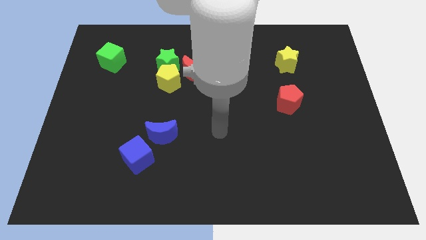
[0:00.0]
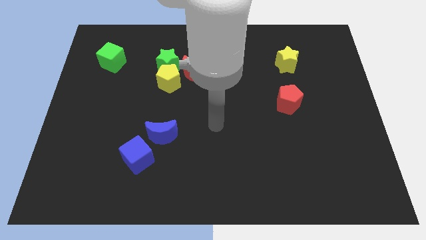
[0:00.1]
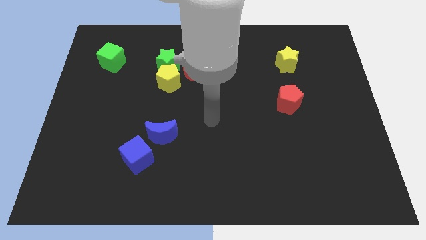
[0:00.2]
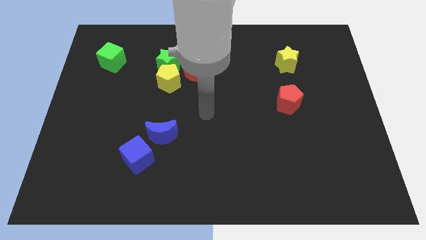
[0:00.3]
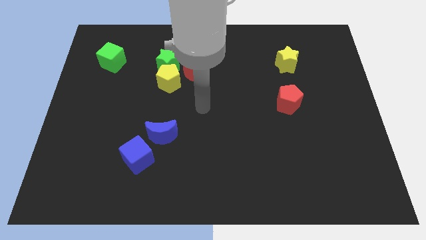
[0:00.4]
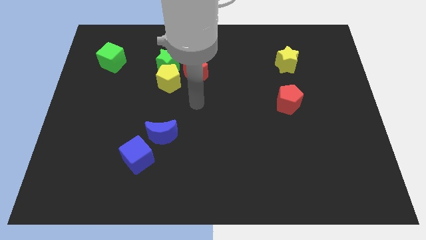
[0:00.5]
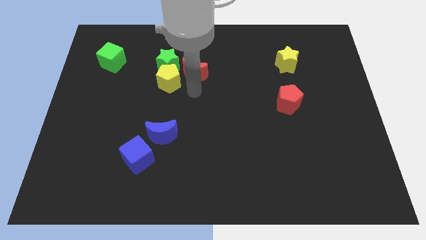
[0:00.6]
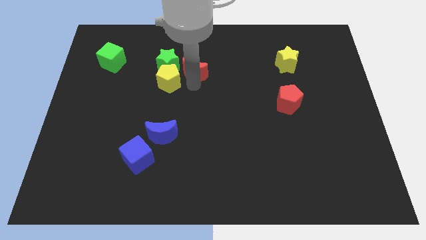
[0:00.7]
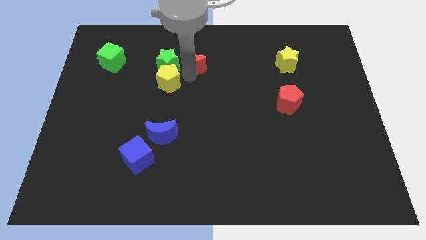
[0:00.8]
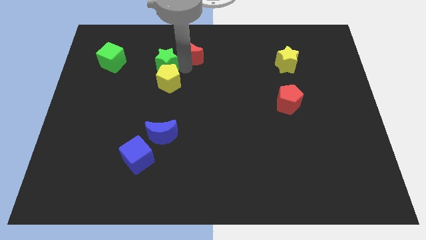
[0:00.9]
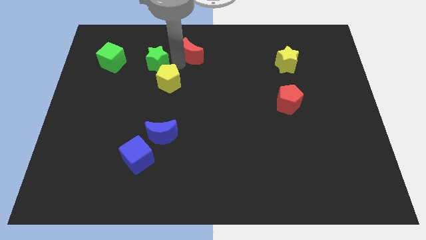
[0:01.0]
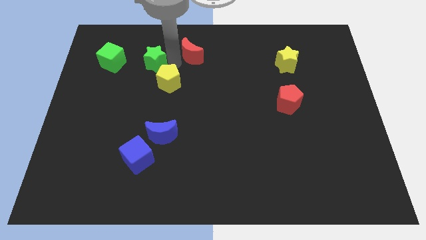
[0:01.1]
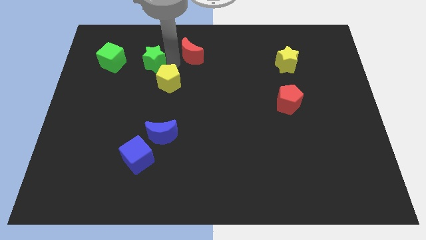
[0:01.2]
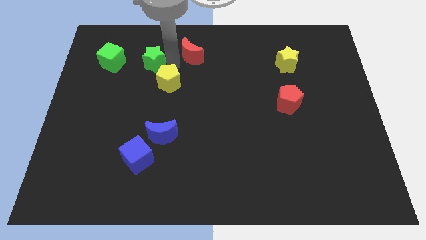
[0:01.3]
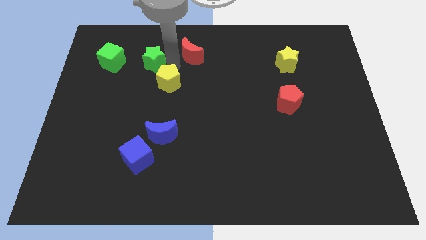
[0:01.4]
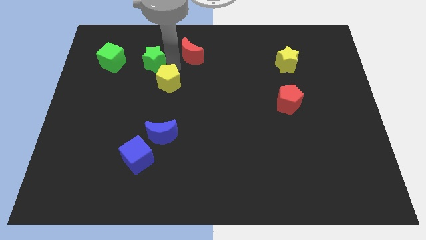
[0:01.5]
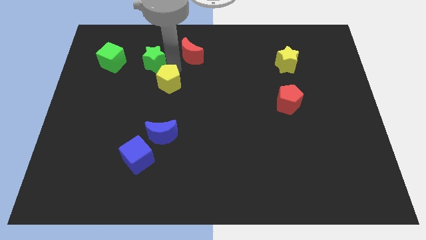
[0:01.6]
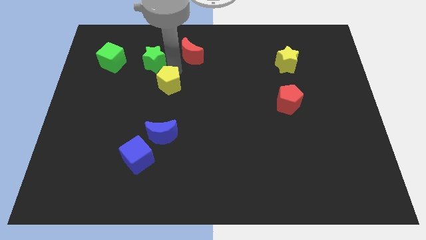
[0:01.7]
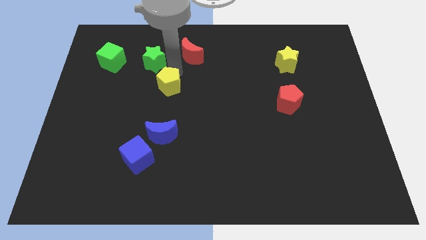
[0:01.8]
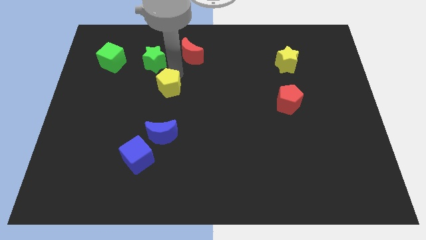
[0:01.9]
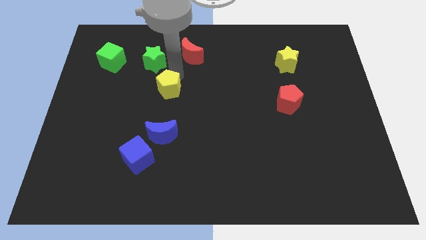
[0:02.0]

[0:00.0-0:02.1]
separate the yellow pentagon from the green star and red moon

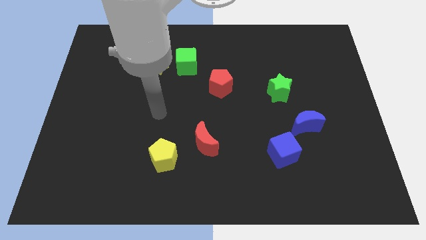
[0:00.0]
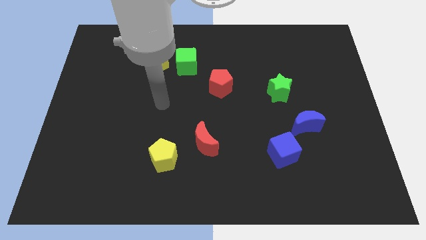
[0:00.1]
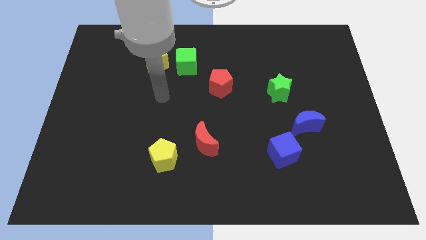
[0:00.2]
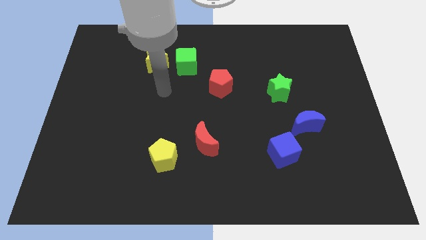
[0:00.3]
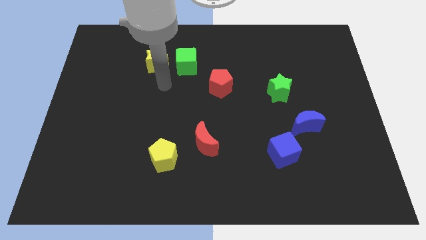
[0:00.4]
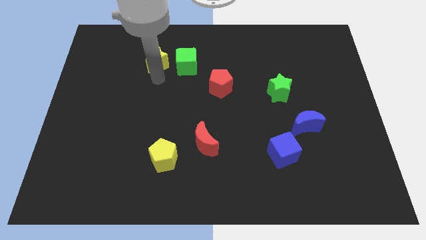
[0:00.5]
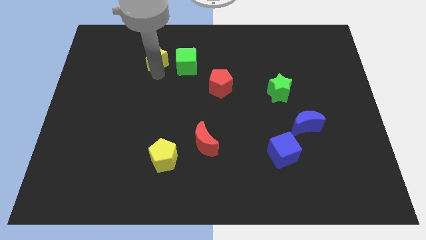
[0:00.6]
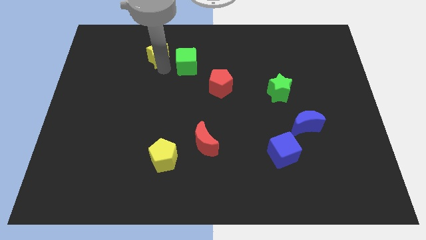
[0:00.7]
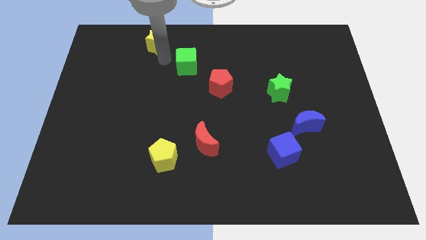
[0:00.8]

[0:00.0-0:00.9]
move the green cube away from the yellow star

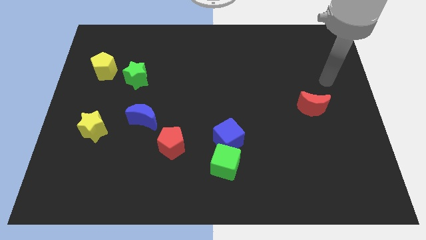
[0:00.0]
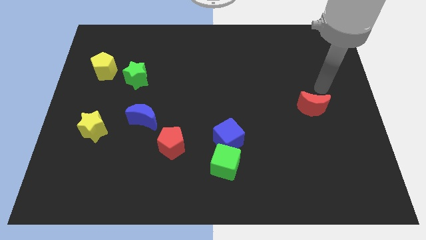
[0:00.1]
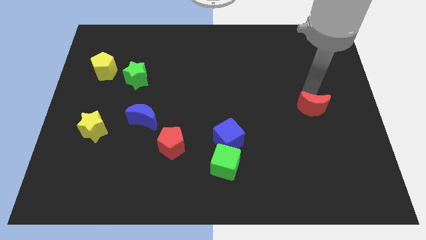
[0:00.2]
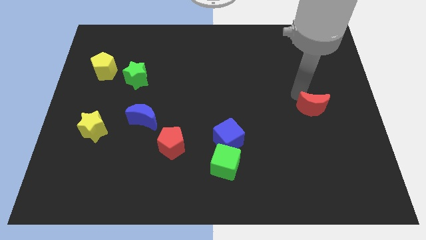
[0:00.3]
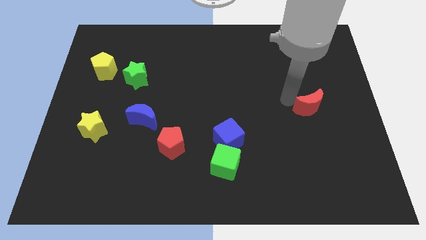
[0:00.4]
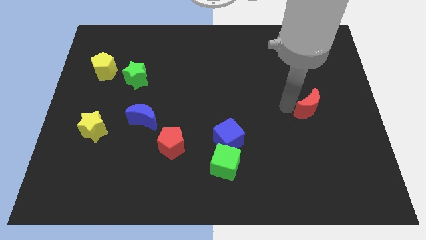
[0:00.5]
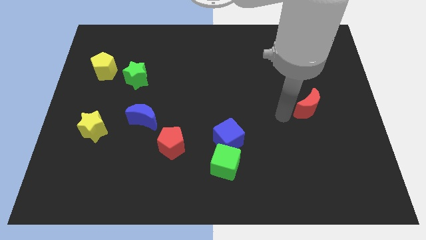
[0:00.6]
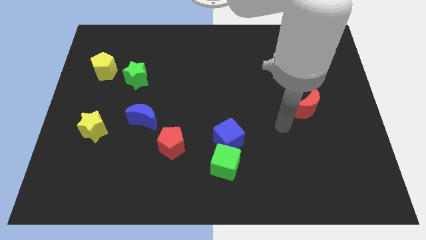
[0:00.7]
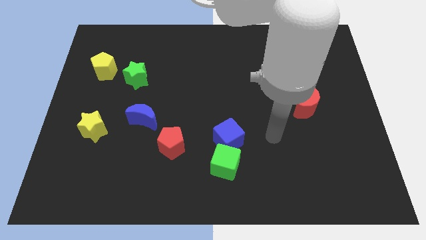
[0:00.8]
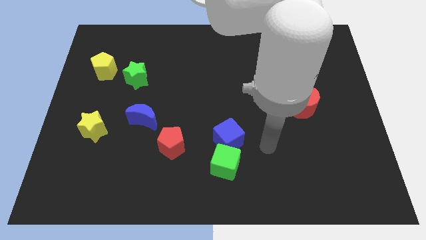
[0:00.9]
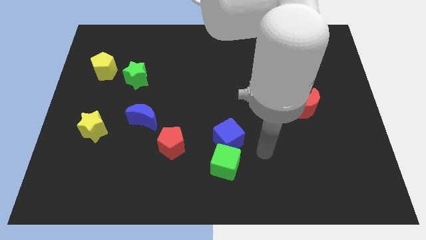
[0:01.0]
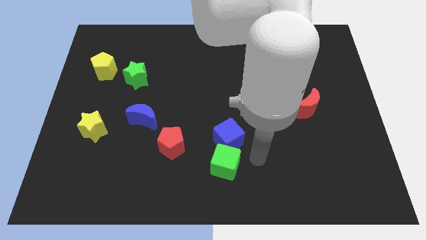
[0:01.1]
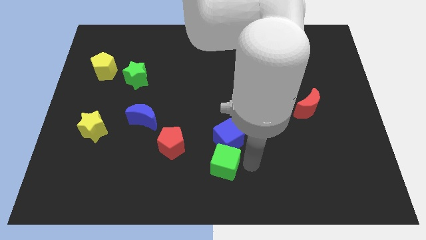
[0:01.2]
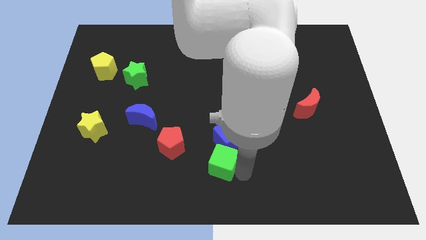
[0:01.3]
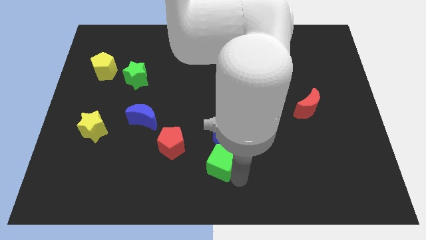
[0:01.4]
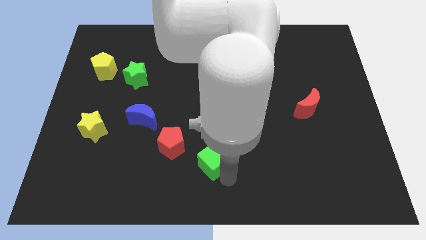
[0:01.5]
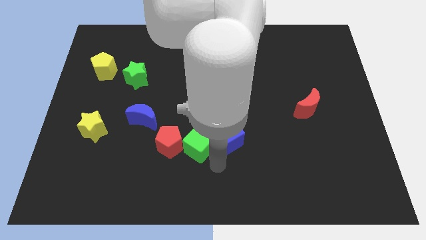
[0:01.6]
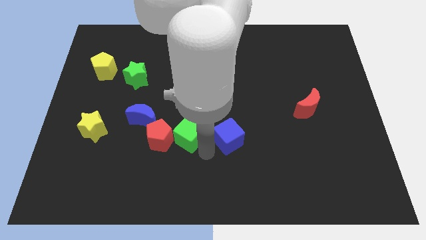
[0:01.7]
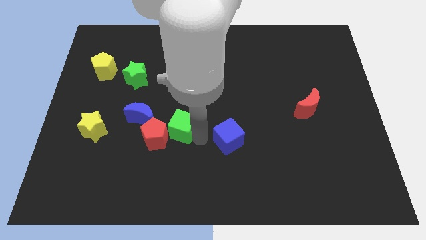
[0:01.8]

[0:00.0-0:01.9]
pull the blue cube apart from the green cube

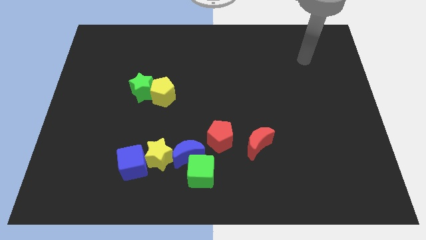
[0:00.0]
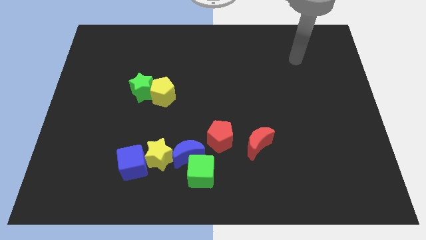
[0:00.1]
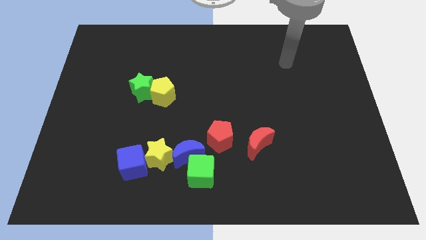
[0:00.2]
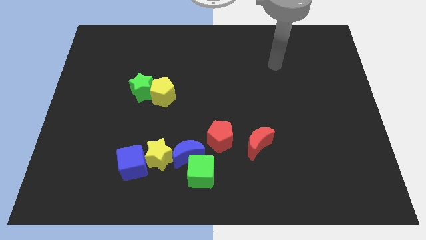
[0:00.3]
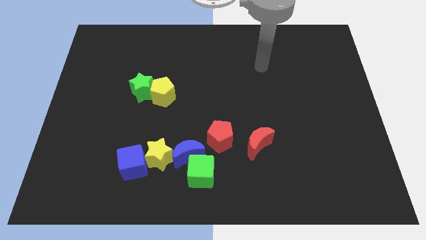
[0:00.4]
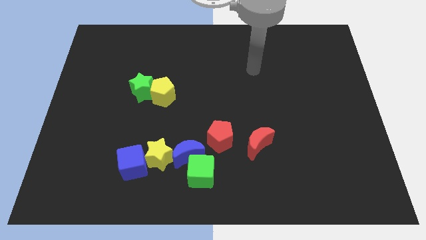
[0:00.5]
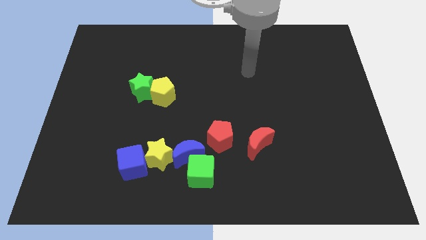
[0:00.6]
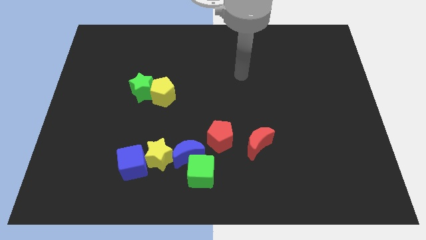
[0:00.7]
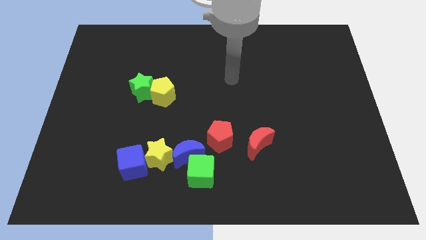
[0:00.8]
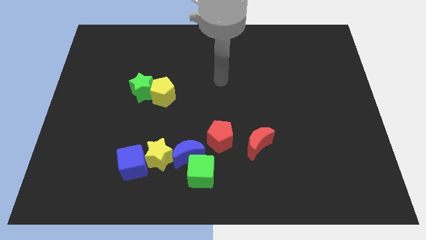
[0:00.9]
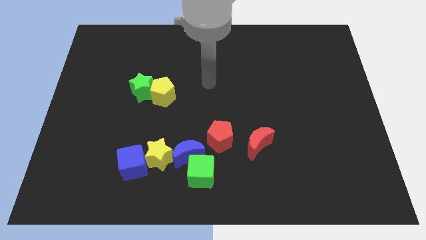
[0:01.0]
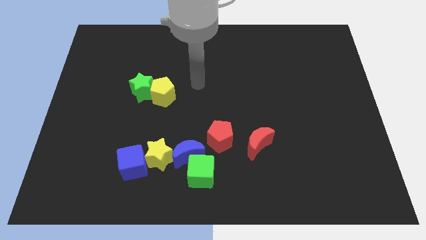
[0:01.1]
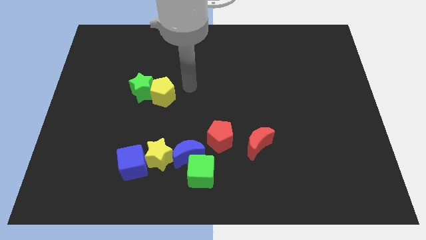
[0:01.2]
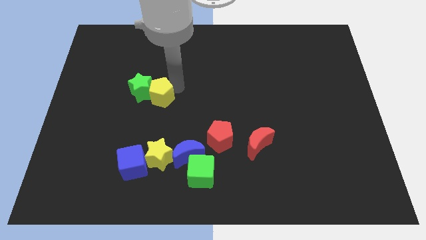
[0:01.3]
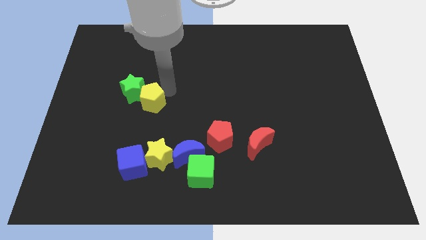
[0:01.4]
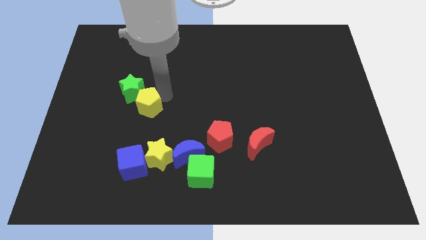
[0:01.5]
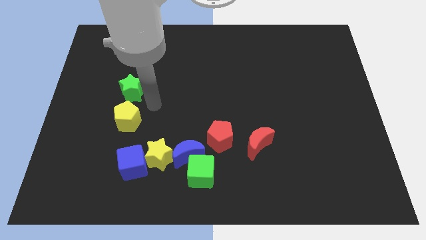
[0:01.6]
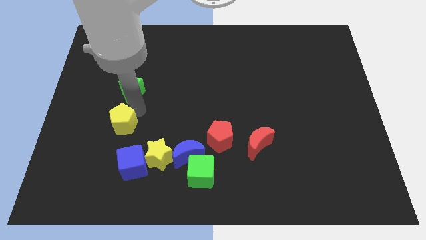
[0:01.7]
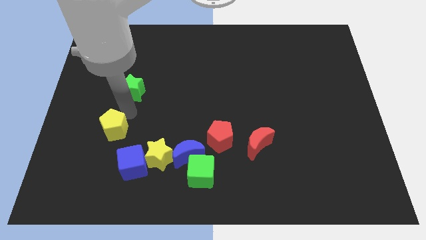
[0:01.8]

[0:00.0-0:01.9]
move the green star away from the yellow pentagon

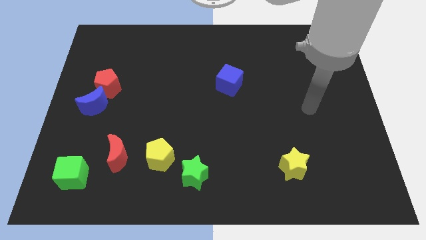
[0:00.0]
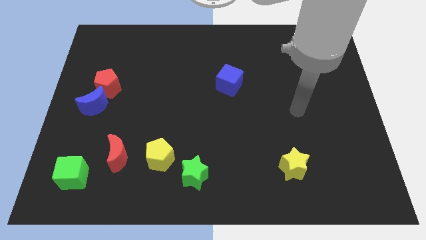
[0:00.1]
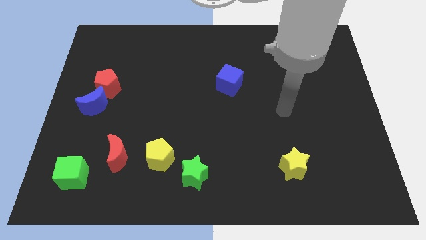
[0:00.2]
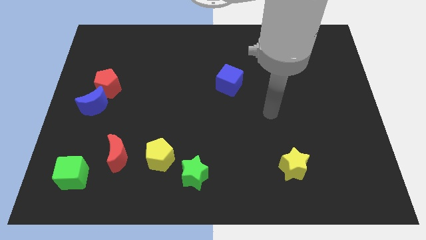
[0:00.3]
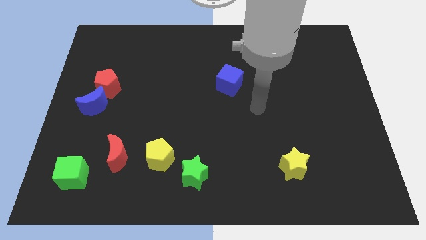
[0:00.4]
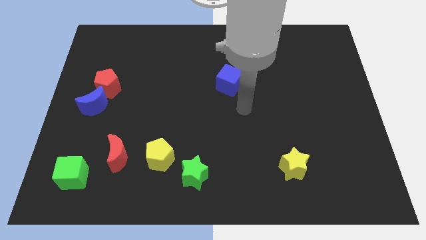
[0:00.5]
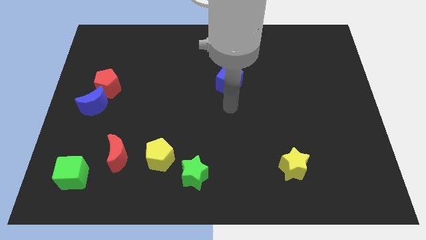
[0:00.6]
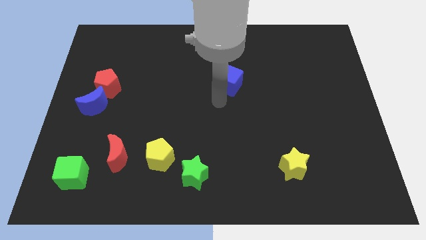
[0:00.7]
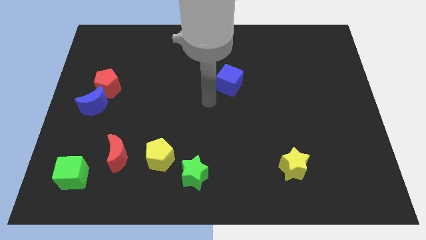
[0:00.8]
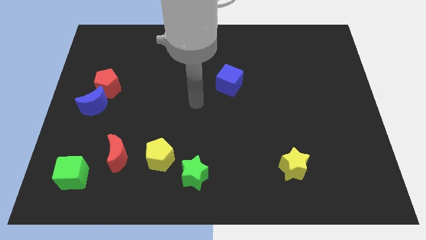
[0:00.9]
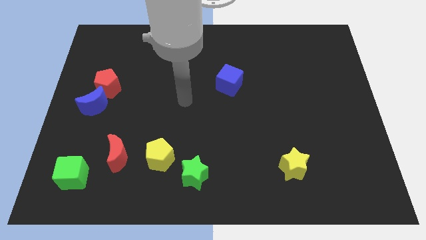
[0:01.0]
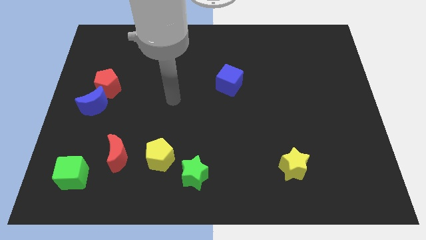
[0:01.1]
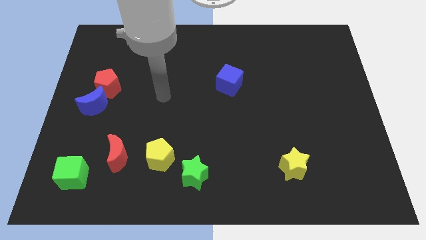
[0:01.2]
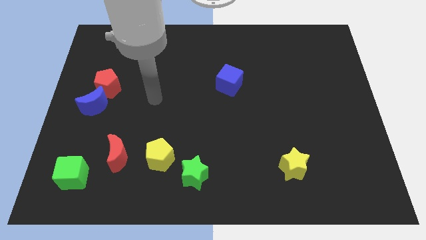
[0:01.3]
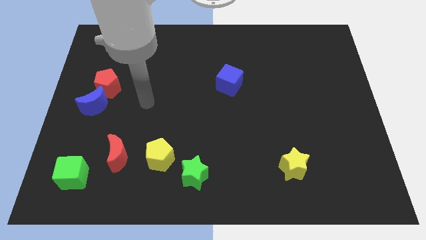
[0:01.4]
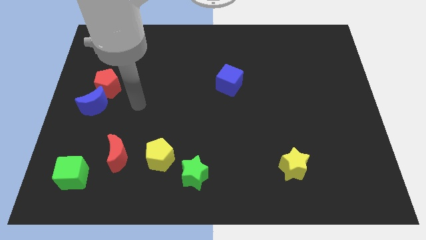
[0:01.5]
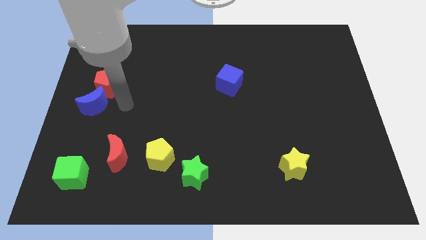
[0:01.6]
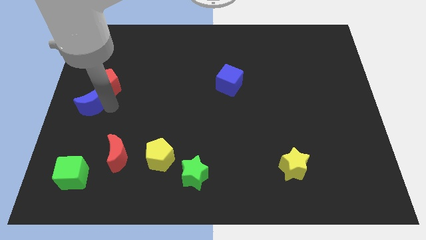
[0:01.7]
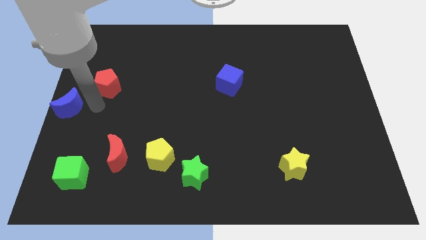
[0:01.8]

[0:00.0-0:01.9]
pull the red pentagon apart from the blue moon

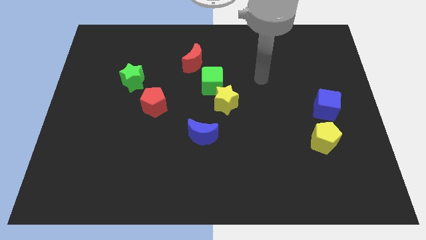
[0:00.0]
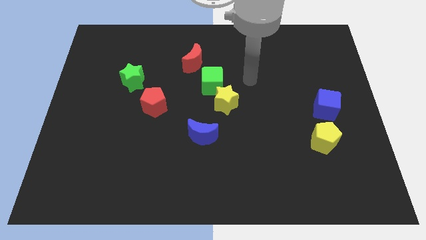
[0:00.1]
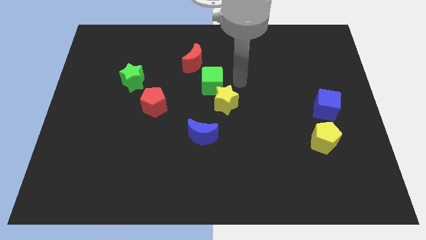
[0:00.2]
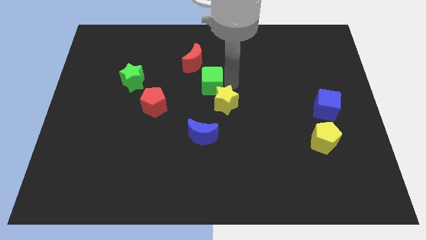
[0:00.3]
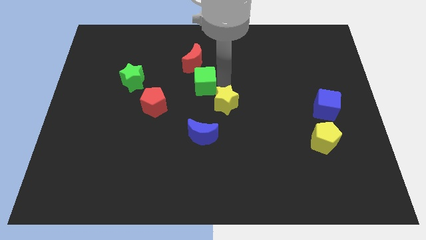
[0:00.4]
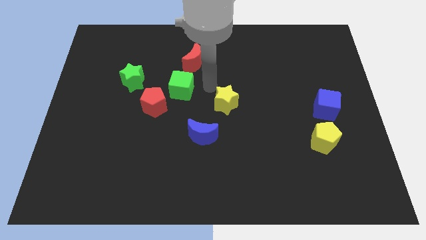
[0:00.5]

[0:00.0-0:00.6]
pull the yellow star apart from the green cube
